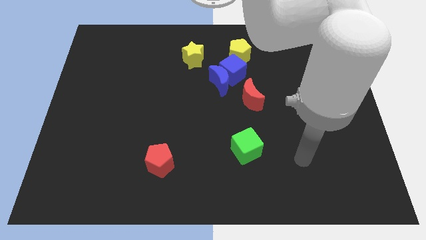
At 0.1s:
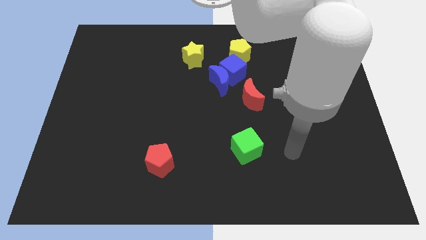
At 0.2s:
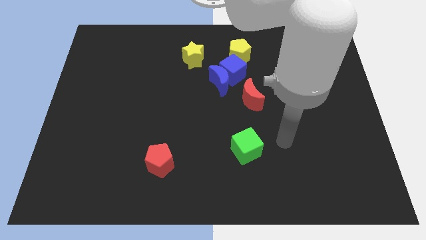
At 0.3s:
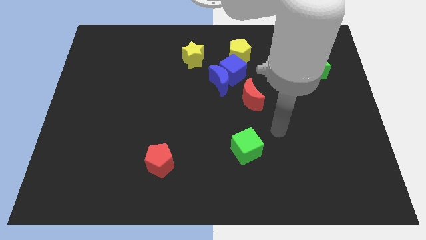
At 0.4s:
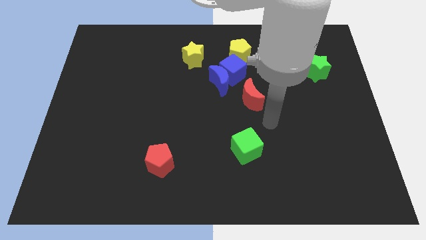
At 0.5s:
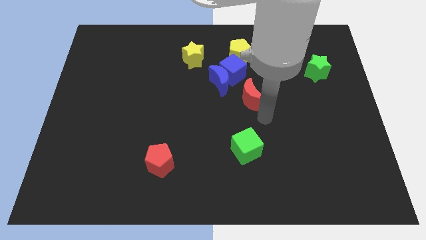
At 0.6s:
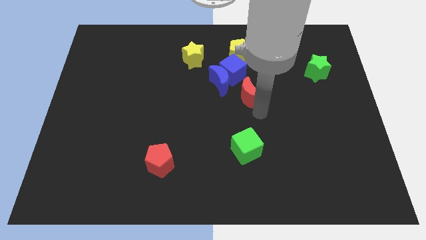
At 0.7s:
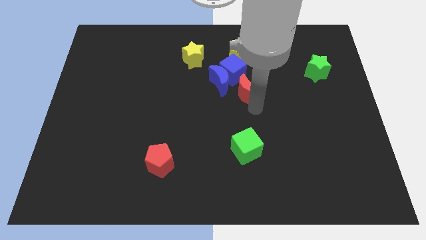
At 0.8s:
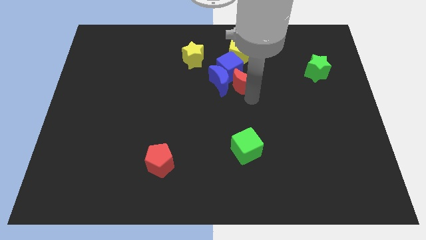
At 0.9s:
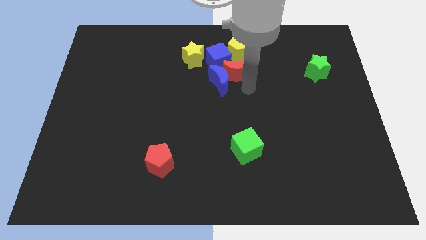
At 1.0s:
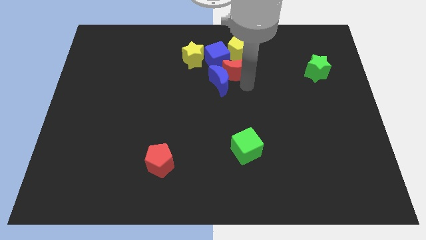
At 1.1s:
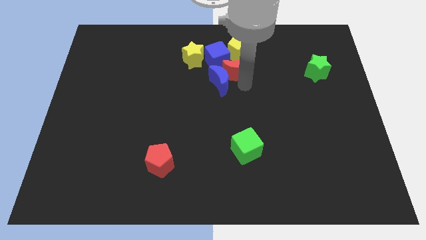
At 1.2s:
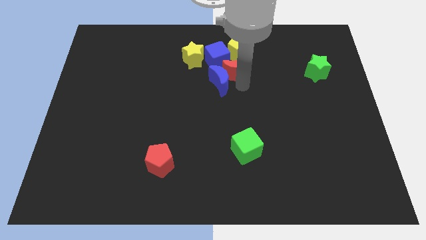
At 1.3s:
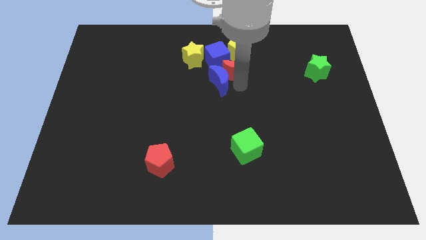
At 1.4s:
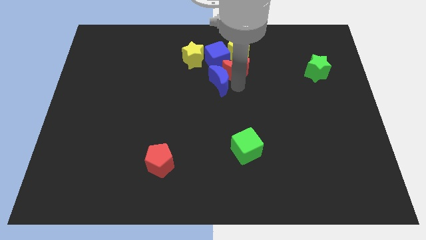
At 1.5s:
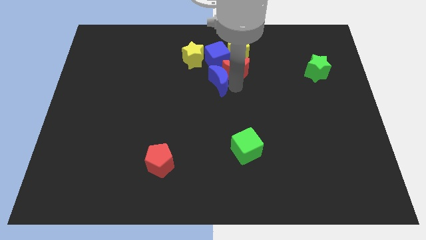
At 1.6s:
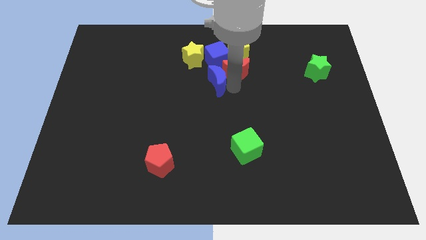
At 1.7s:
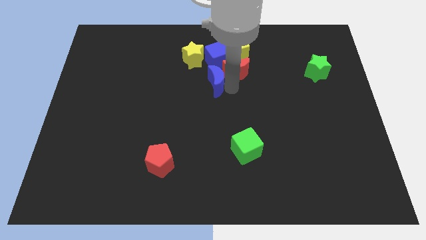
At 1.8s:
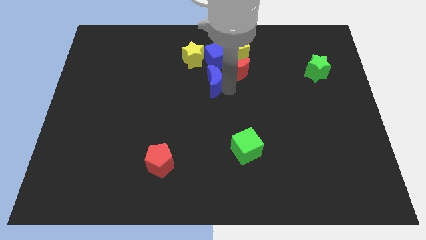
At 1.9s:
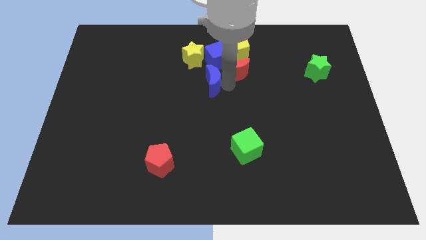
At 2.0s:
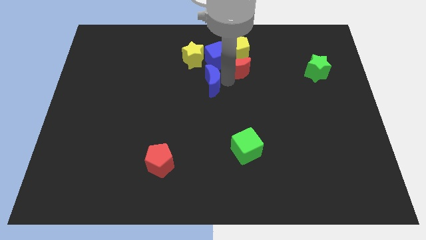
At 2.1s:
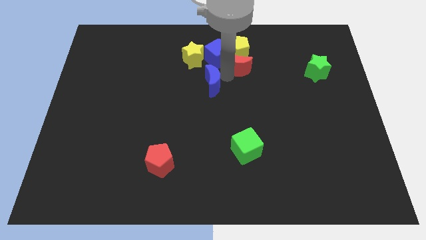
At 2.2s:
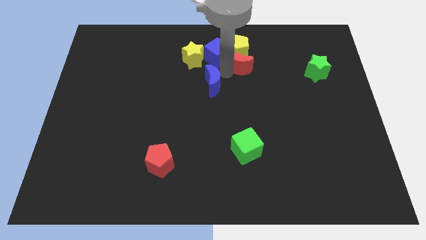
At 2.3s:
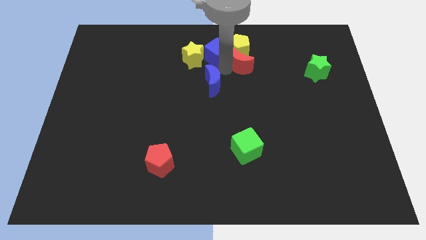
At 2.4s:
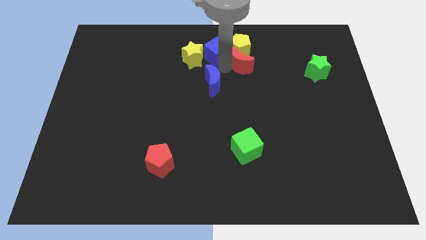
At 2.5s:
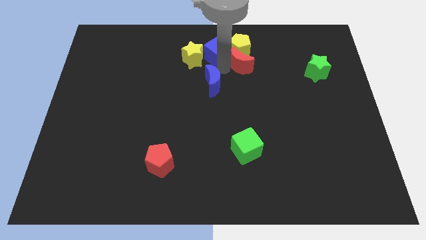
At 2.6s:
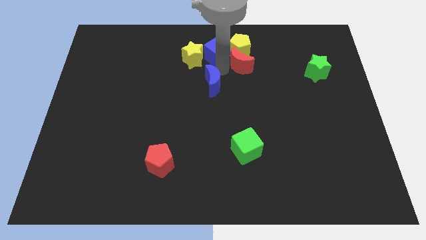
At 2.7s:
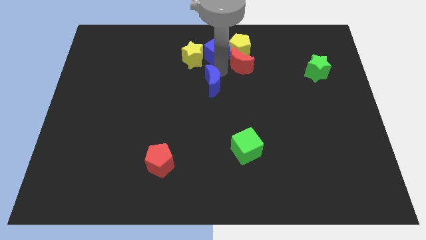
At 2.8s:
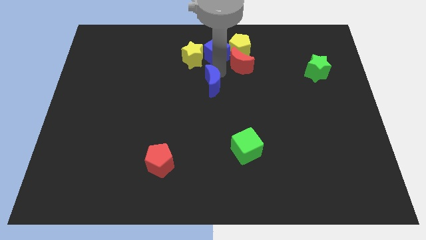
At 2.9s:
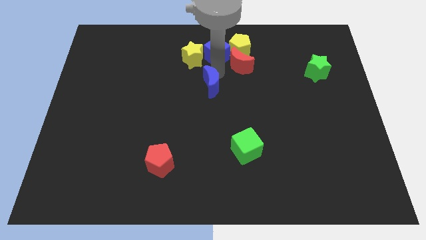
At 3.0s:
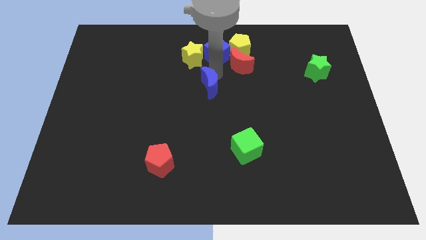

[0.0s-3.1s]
move the blue moon away from the blue cube and red moon

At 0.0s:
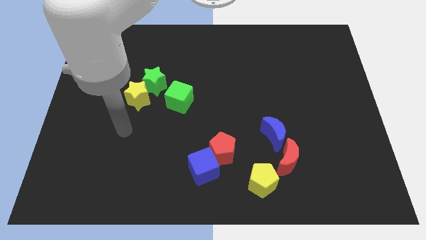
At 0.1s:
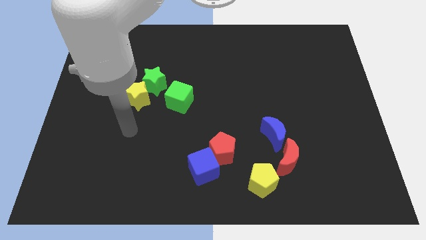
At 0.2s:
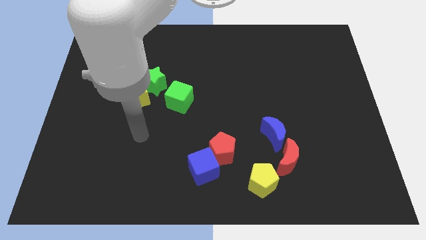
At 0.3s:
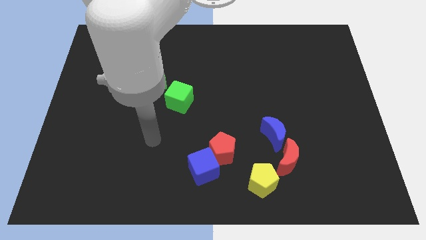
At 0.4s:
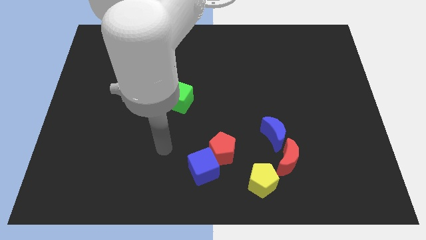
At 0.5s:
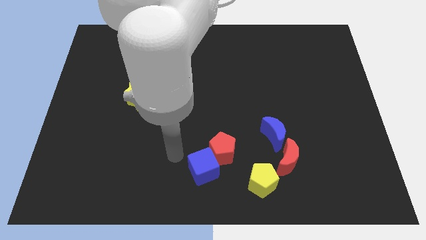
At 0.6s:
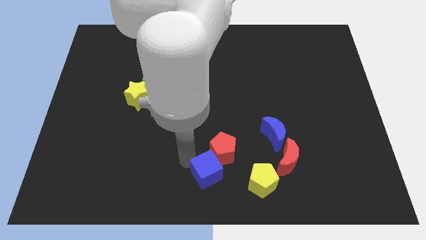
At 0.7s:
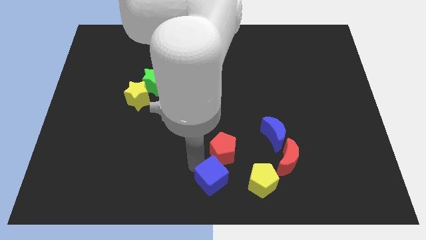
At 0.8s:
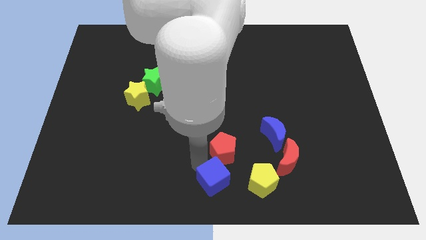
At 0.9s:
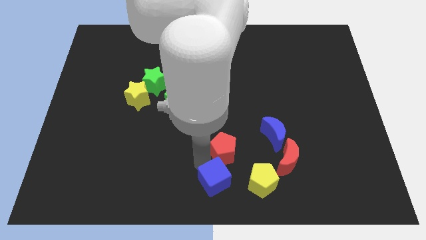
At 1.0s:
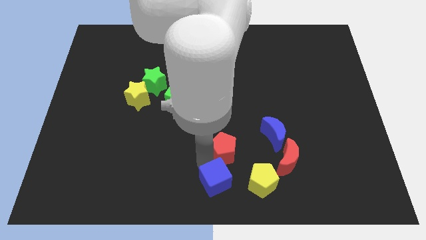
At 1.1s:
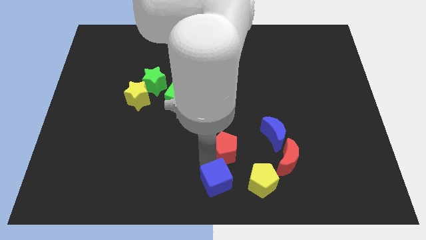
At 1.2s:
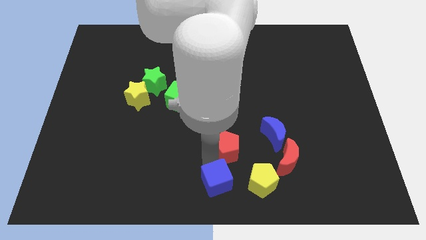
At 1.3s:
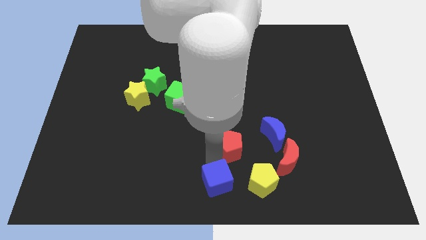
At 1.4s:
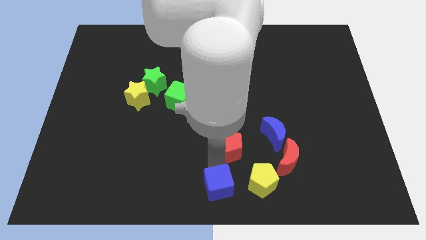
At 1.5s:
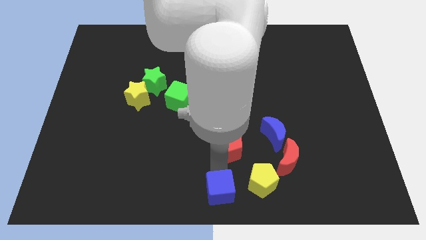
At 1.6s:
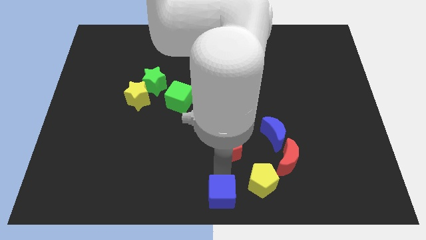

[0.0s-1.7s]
move the red pentagon away from the blue cube

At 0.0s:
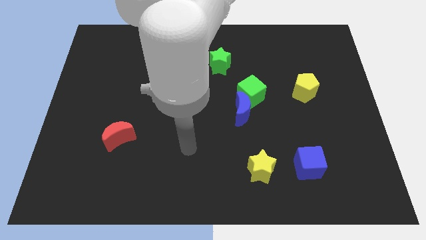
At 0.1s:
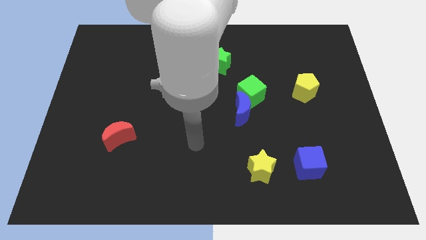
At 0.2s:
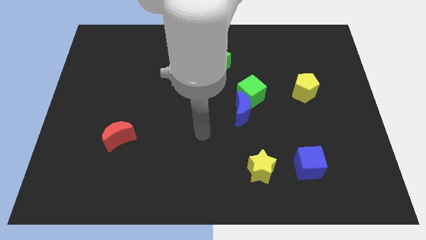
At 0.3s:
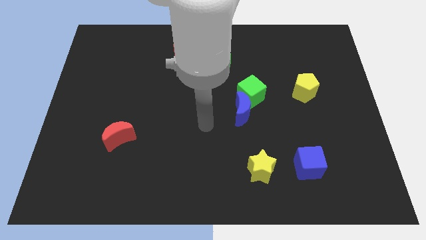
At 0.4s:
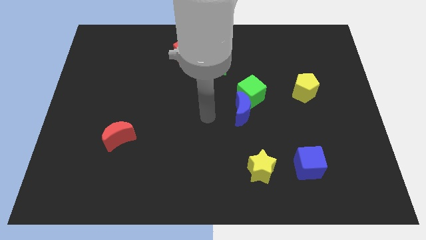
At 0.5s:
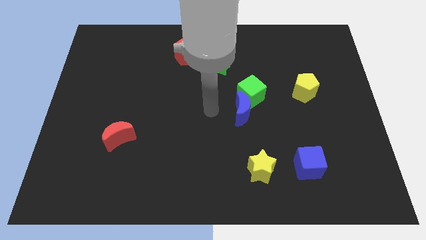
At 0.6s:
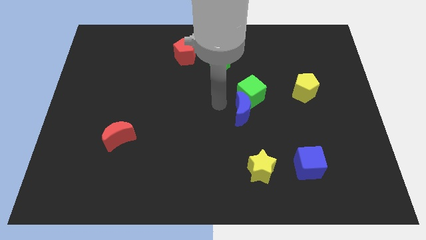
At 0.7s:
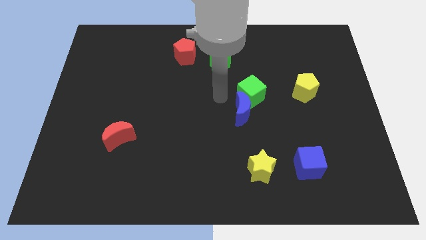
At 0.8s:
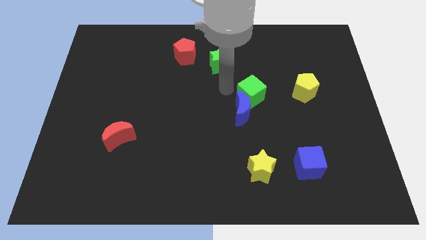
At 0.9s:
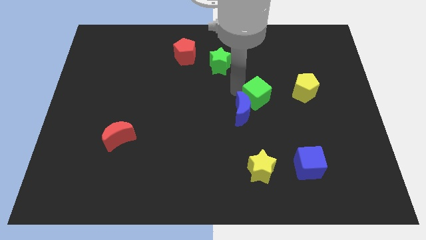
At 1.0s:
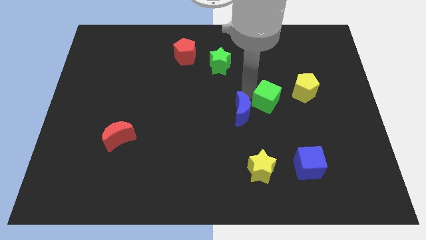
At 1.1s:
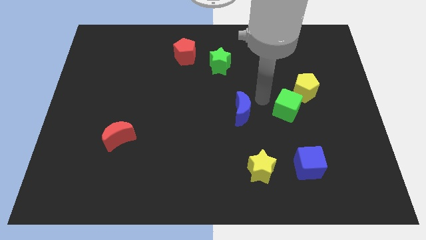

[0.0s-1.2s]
move the blue moon away from the green cube

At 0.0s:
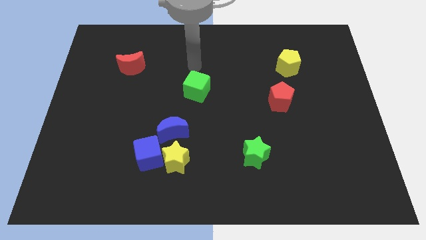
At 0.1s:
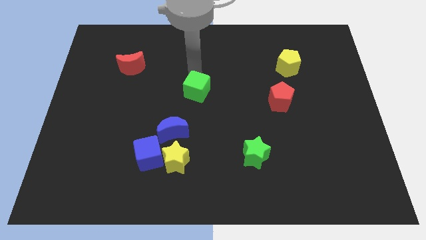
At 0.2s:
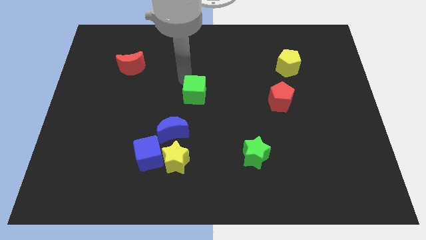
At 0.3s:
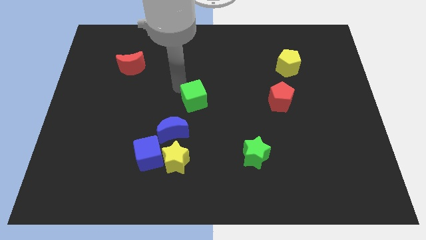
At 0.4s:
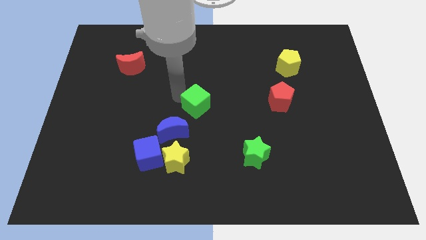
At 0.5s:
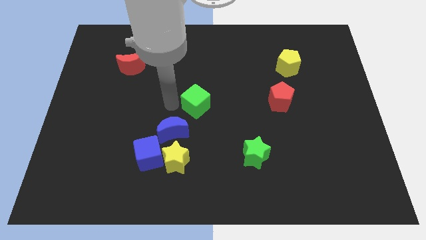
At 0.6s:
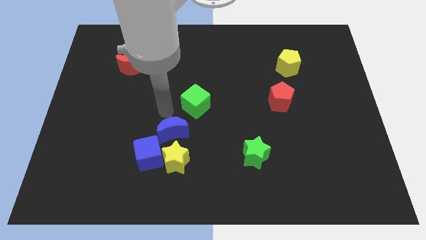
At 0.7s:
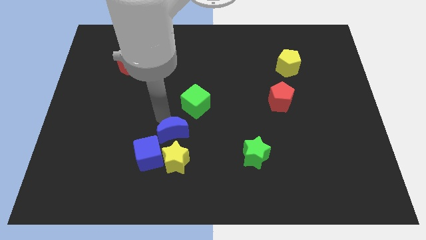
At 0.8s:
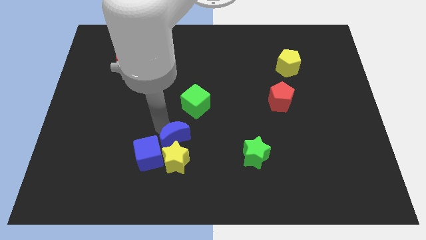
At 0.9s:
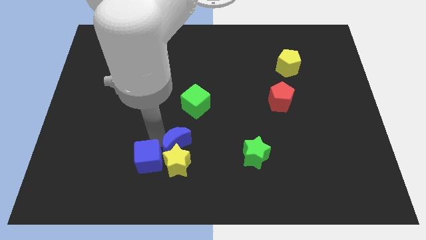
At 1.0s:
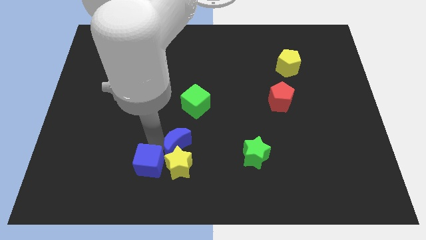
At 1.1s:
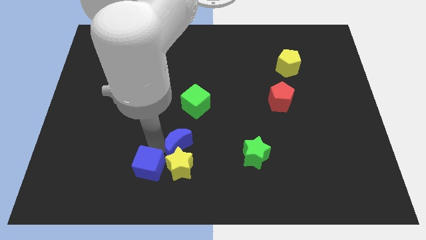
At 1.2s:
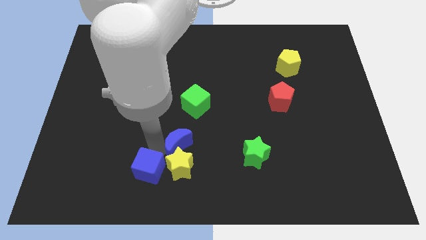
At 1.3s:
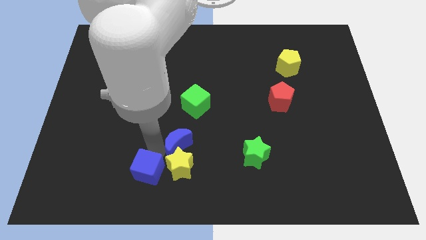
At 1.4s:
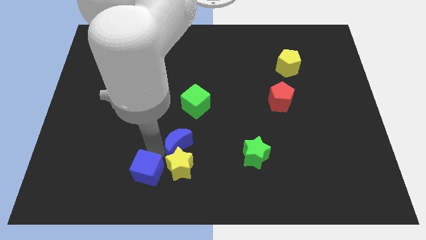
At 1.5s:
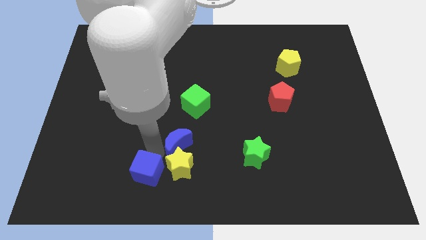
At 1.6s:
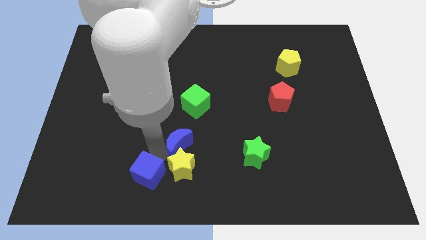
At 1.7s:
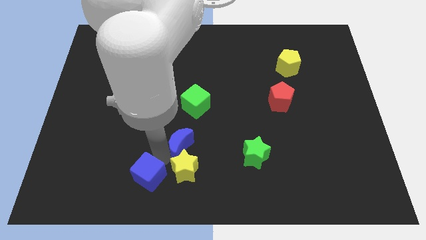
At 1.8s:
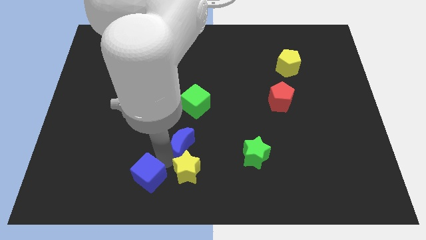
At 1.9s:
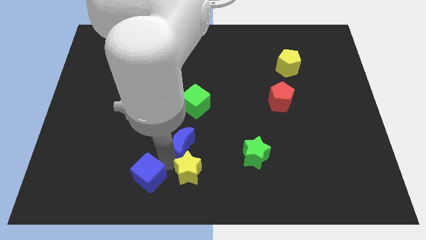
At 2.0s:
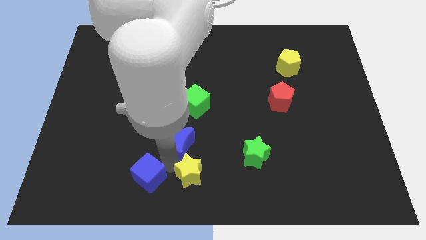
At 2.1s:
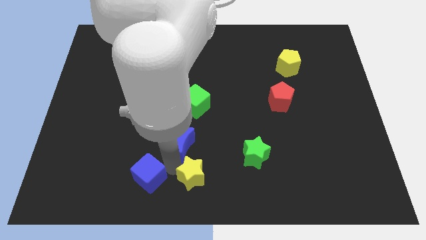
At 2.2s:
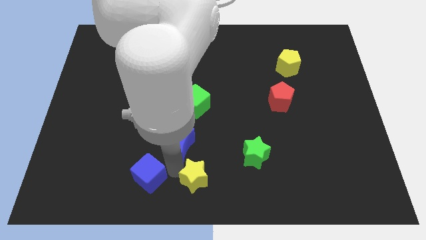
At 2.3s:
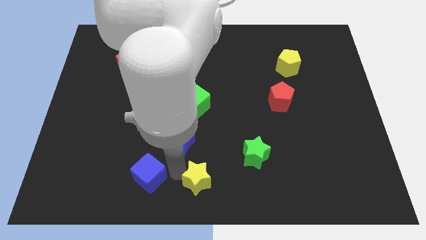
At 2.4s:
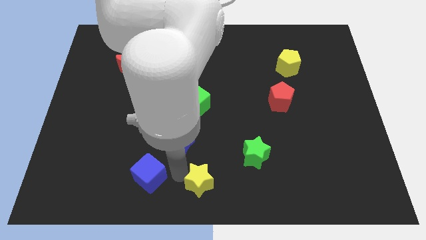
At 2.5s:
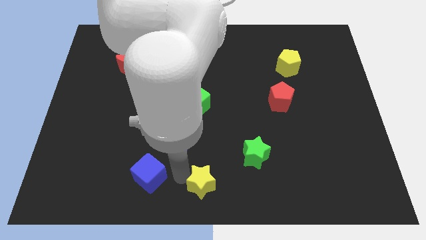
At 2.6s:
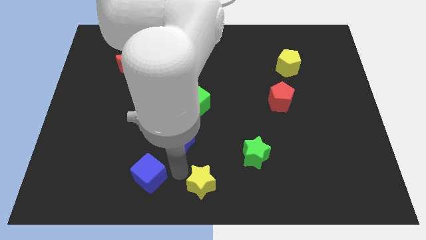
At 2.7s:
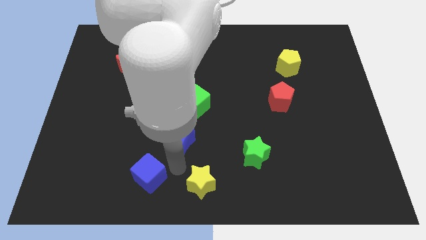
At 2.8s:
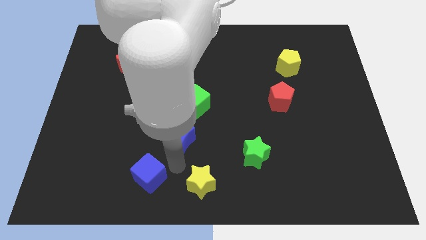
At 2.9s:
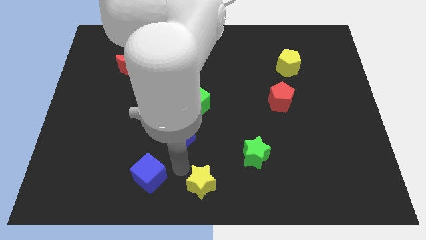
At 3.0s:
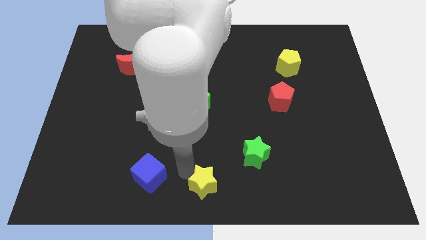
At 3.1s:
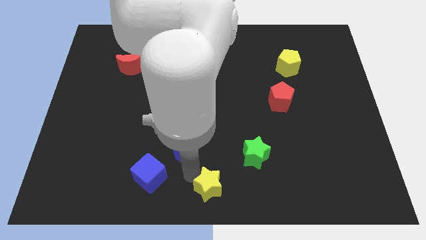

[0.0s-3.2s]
move the yellow star away from the blue cube and blue moon

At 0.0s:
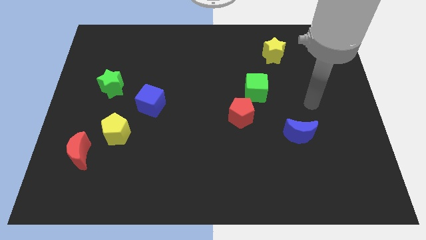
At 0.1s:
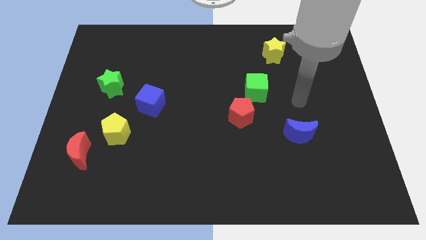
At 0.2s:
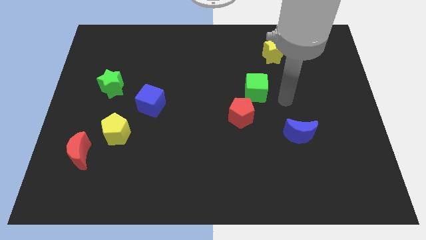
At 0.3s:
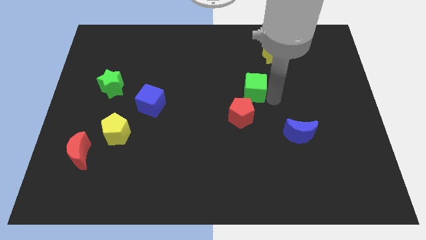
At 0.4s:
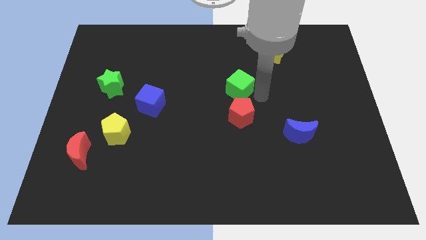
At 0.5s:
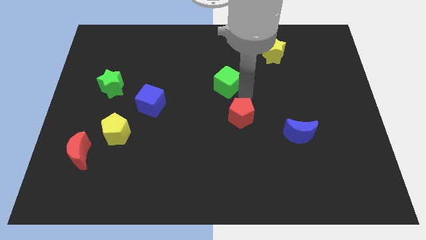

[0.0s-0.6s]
move the red pentagon away from the green cube
